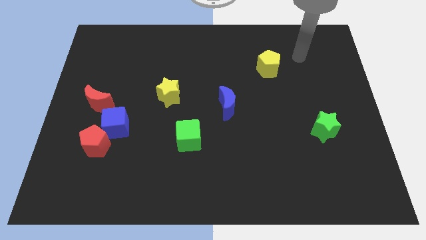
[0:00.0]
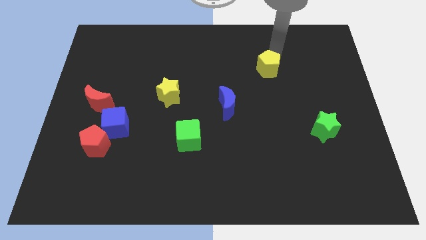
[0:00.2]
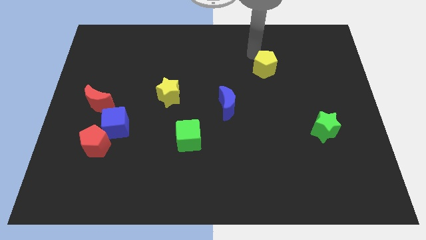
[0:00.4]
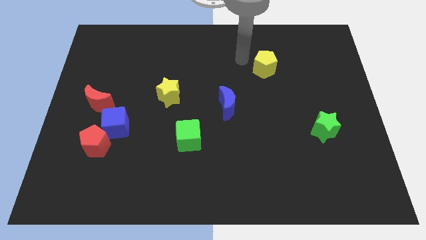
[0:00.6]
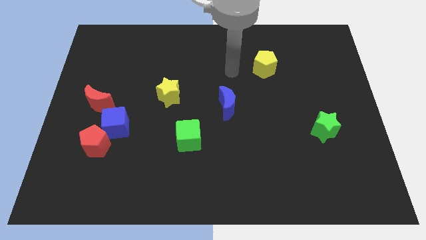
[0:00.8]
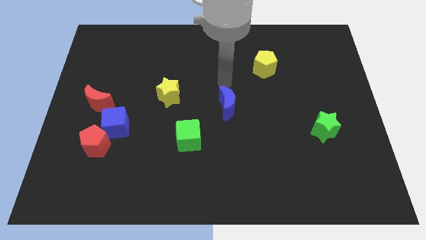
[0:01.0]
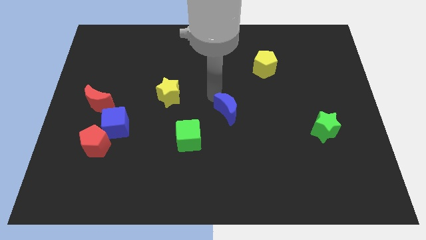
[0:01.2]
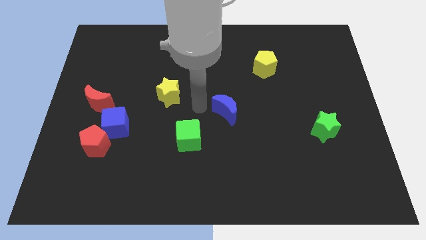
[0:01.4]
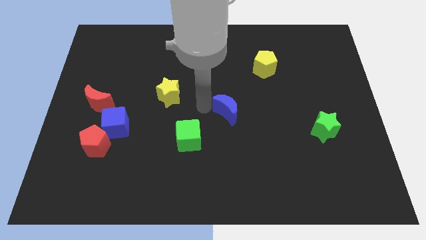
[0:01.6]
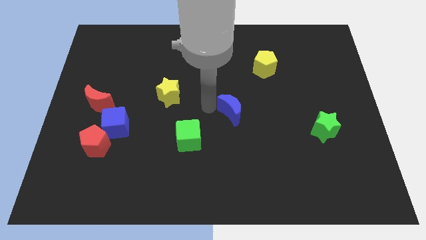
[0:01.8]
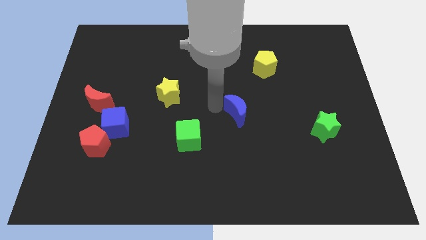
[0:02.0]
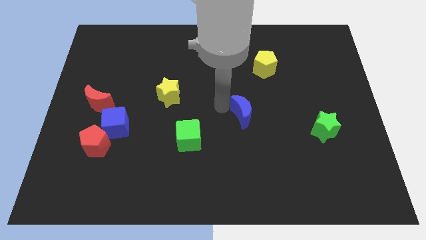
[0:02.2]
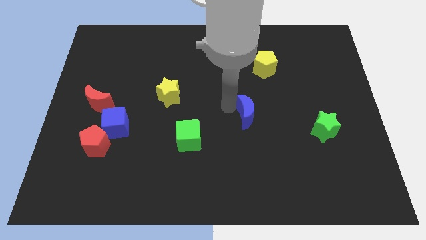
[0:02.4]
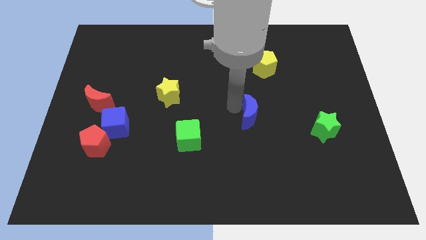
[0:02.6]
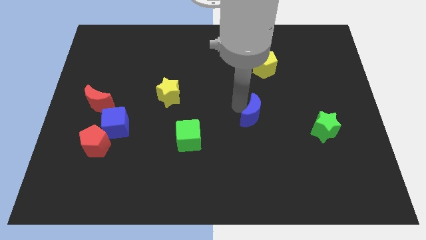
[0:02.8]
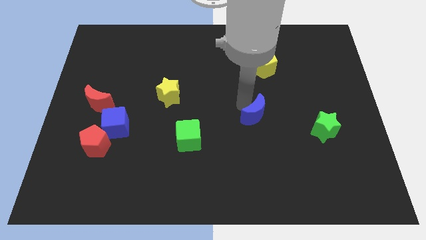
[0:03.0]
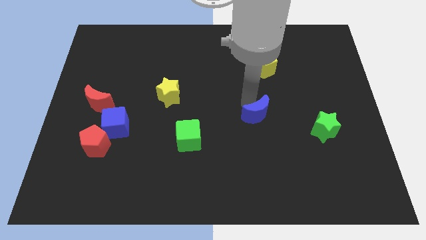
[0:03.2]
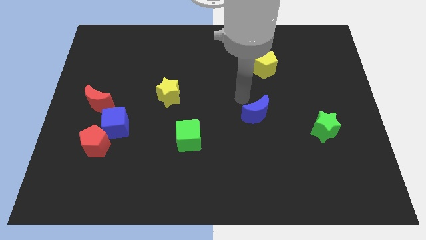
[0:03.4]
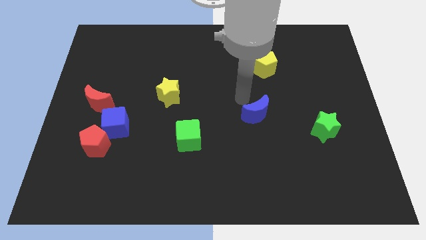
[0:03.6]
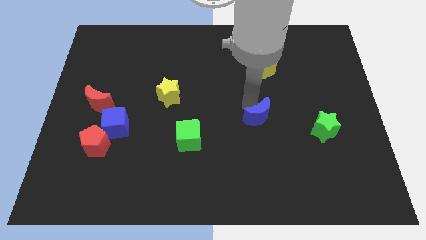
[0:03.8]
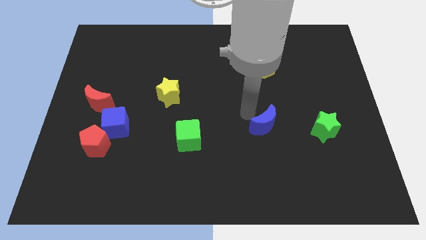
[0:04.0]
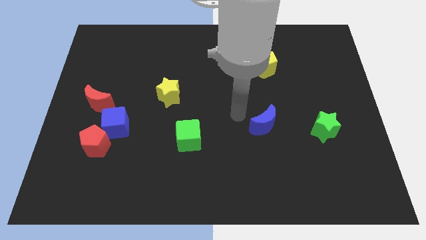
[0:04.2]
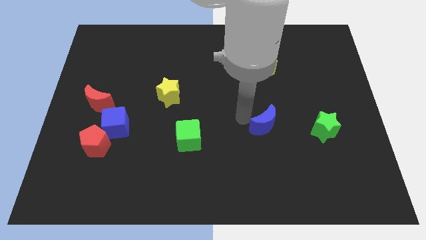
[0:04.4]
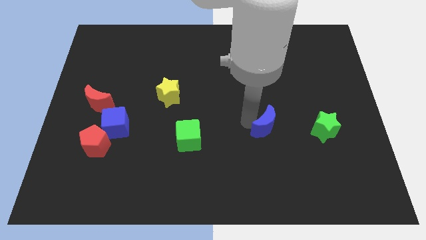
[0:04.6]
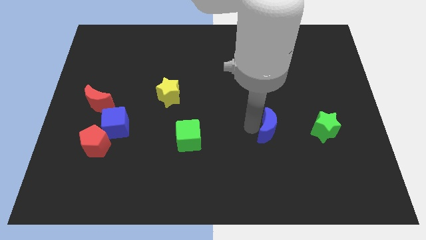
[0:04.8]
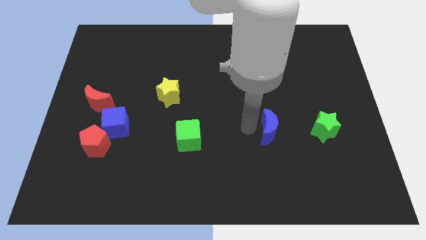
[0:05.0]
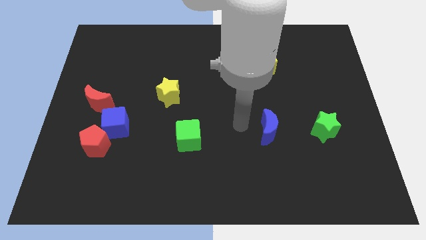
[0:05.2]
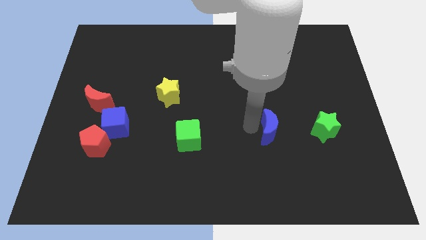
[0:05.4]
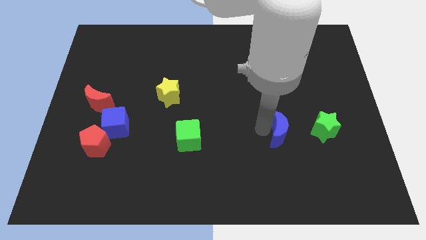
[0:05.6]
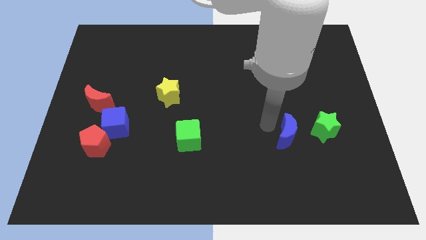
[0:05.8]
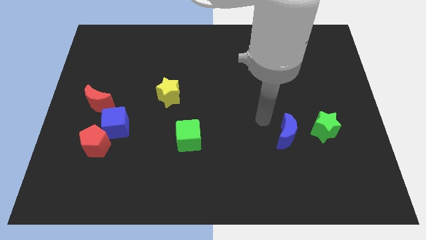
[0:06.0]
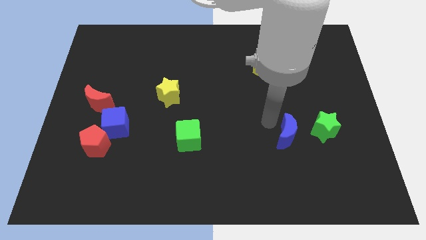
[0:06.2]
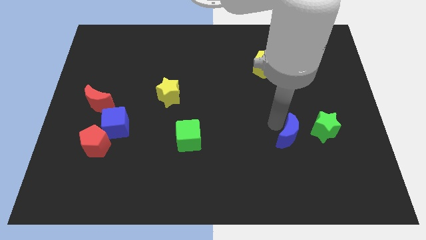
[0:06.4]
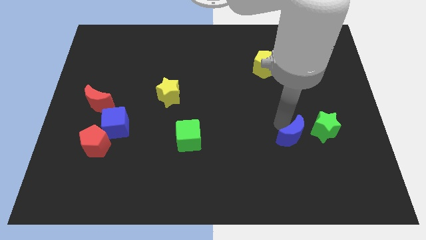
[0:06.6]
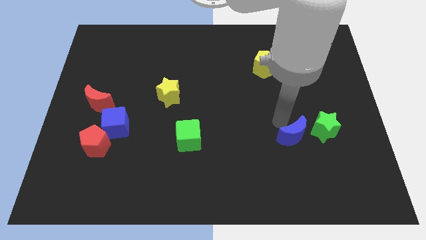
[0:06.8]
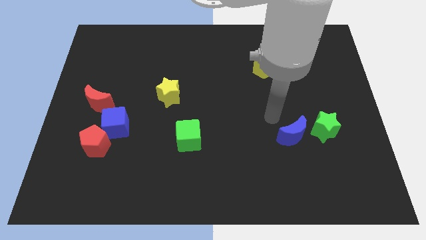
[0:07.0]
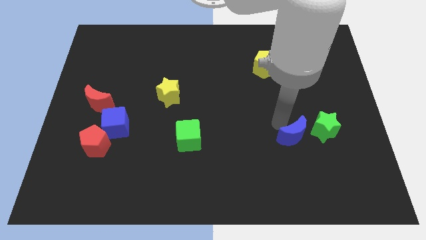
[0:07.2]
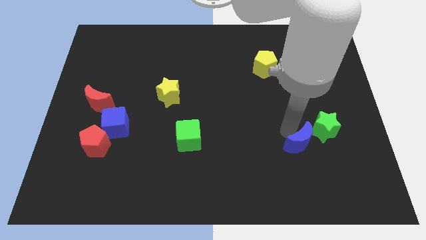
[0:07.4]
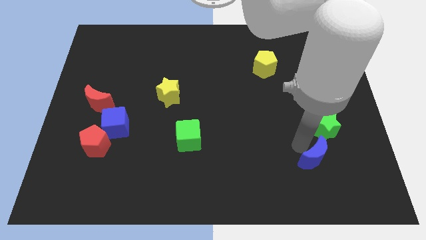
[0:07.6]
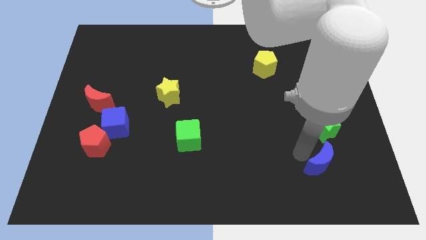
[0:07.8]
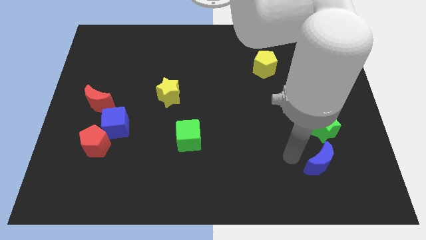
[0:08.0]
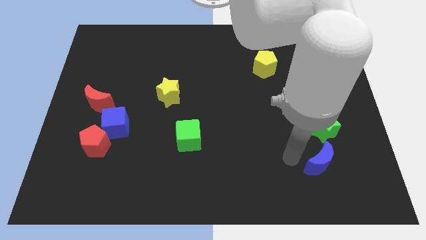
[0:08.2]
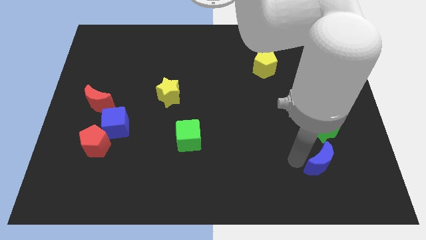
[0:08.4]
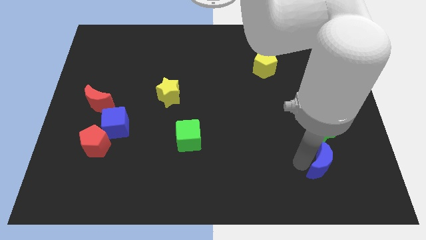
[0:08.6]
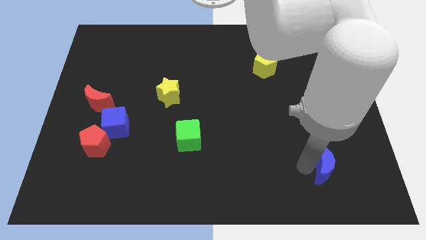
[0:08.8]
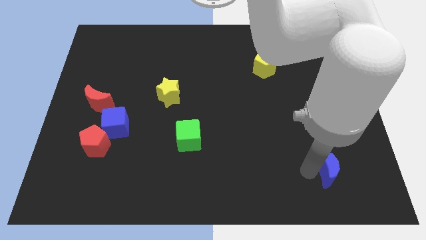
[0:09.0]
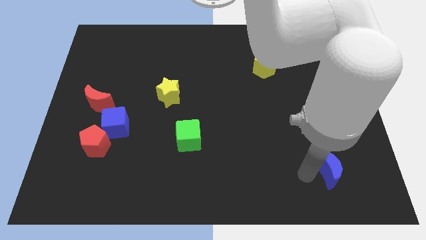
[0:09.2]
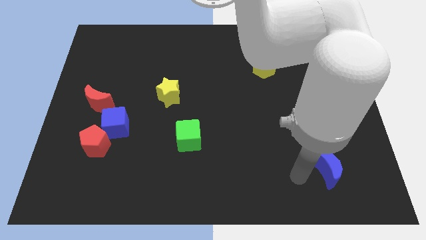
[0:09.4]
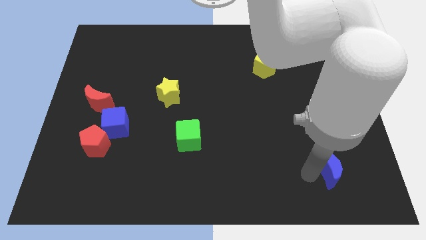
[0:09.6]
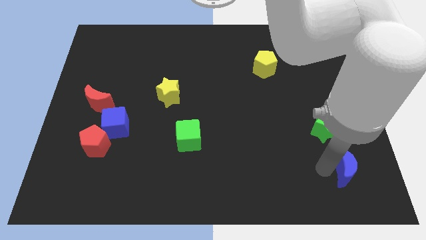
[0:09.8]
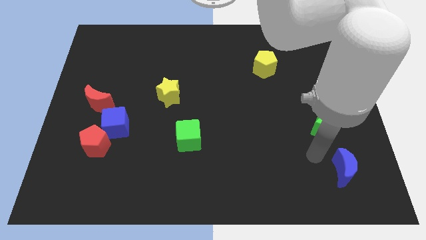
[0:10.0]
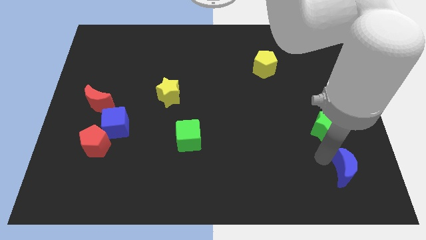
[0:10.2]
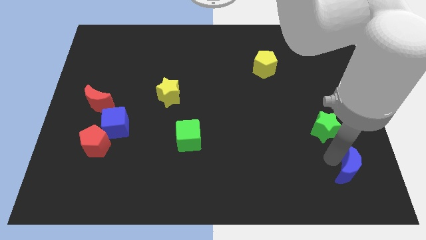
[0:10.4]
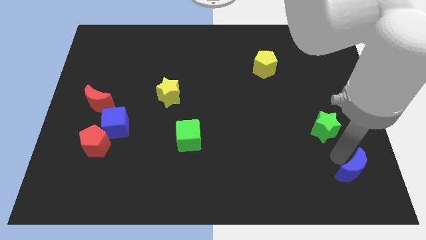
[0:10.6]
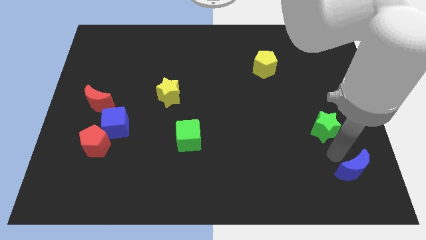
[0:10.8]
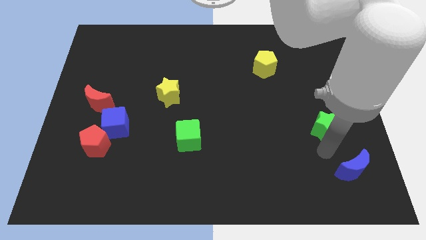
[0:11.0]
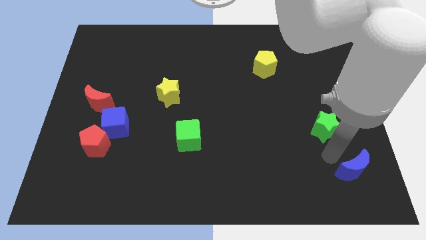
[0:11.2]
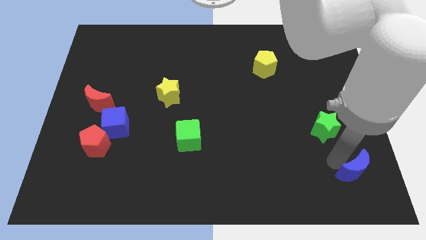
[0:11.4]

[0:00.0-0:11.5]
push the blue moon to the bottom right corner
